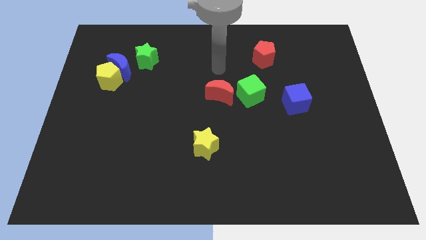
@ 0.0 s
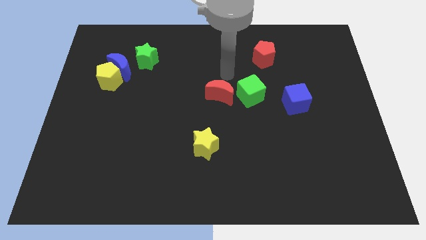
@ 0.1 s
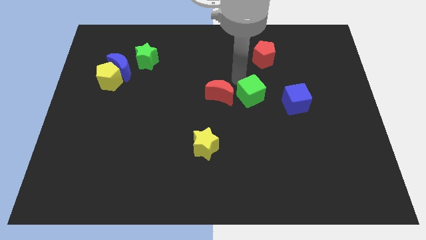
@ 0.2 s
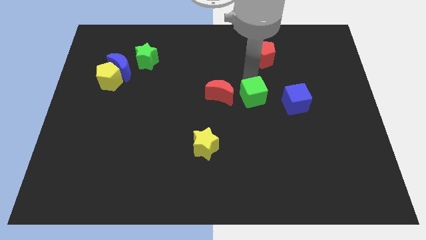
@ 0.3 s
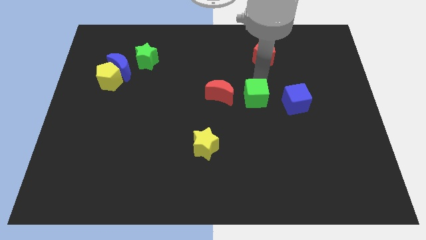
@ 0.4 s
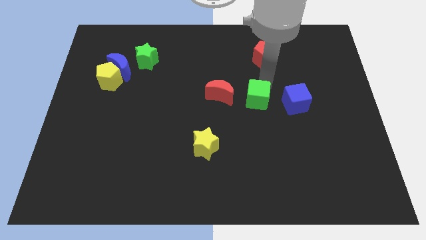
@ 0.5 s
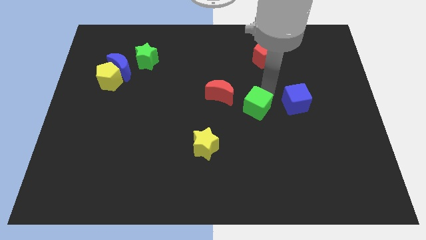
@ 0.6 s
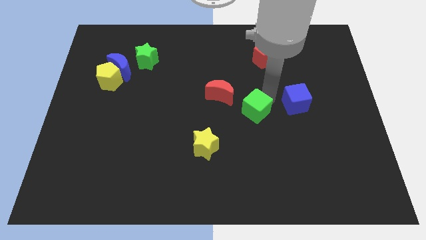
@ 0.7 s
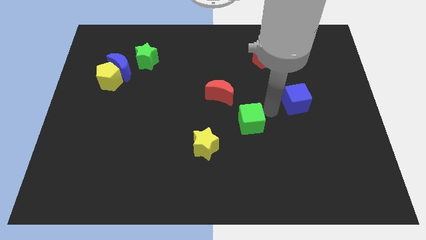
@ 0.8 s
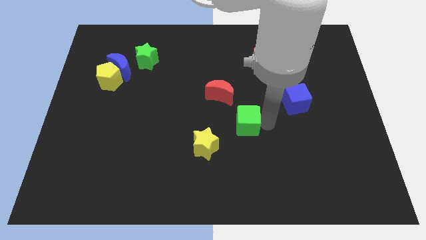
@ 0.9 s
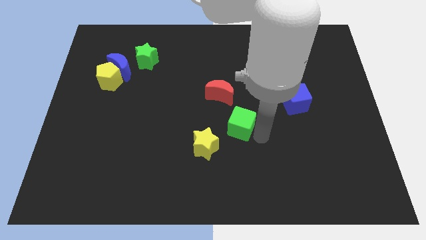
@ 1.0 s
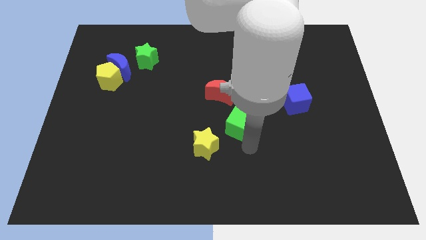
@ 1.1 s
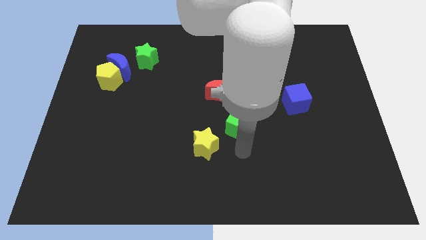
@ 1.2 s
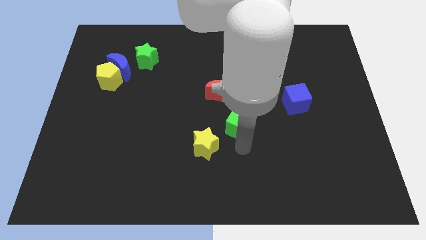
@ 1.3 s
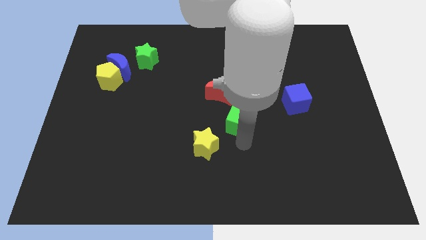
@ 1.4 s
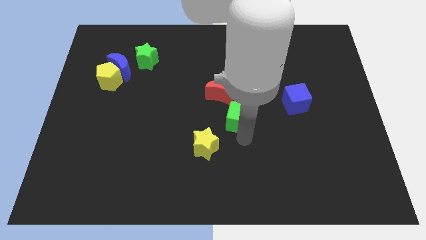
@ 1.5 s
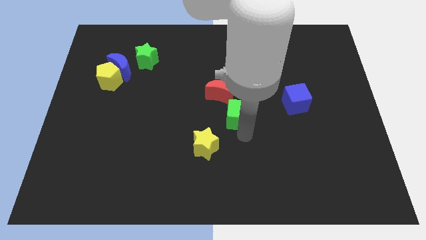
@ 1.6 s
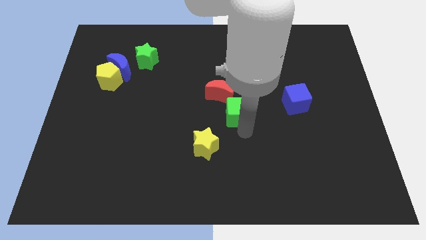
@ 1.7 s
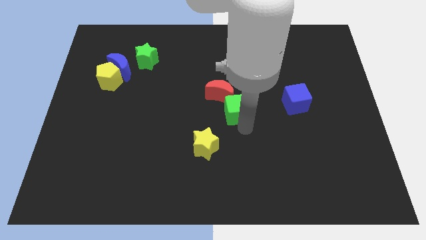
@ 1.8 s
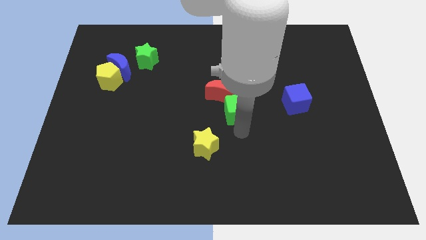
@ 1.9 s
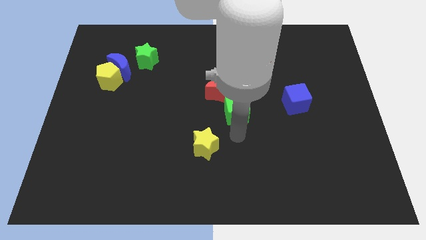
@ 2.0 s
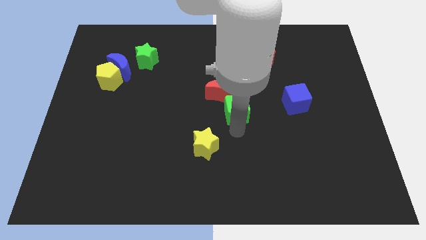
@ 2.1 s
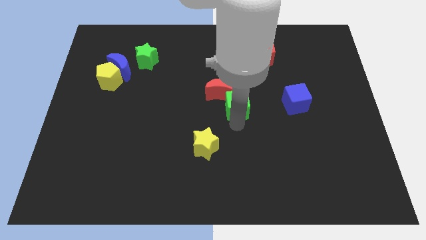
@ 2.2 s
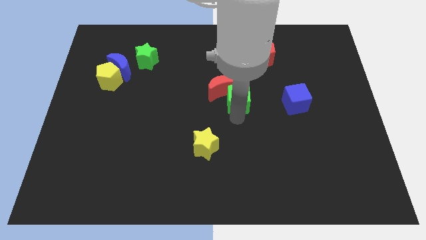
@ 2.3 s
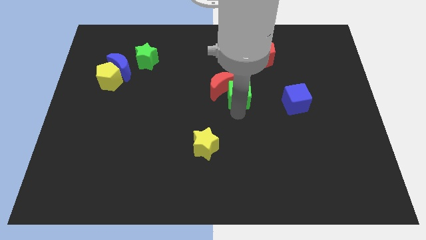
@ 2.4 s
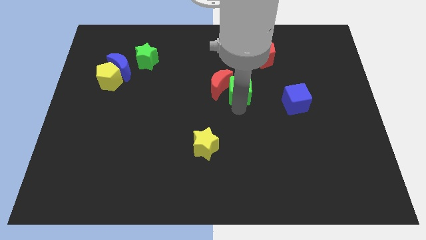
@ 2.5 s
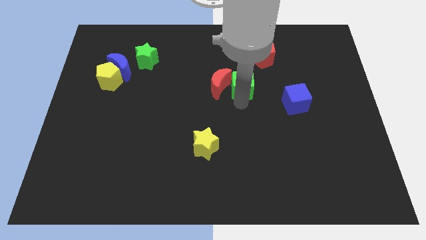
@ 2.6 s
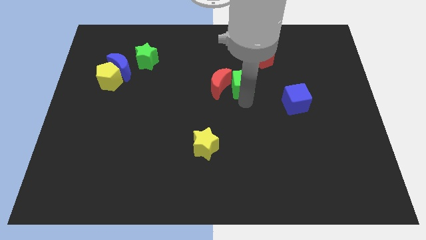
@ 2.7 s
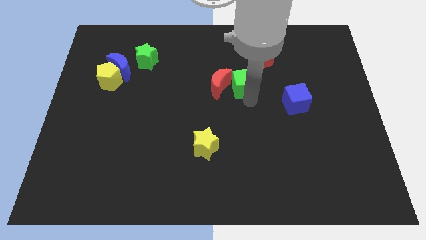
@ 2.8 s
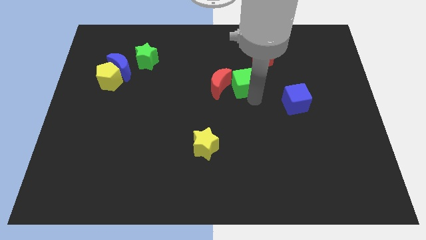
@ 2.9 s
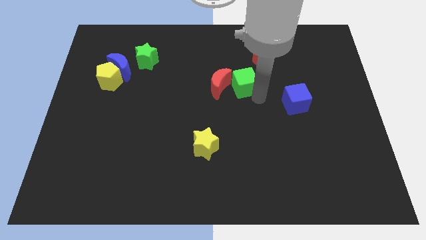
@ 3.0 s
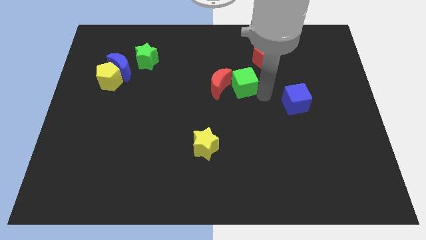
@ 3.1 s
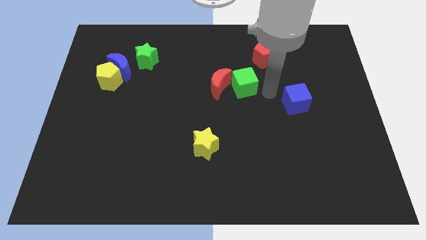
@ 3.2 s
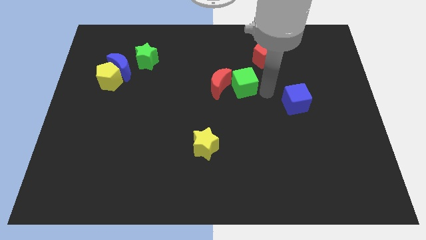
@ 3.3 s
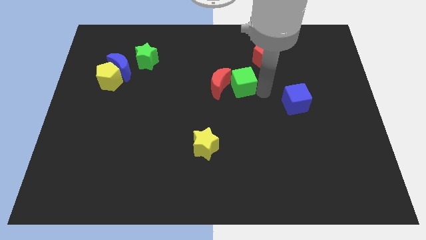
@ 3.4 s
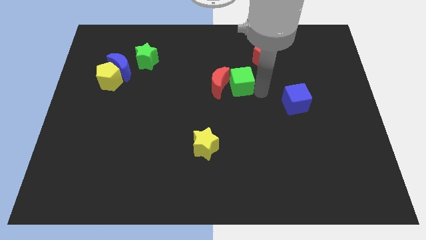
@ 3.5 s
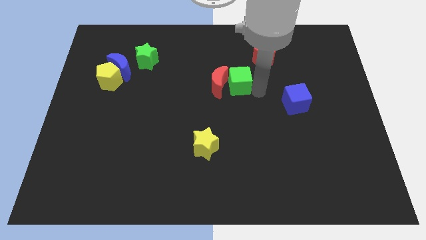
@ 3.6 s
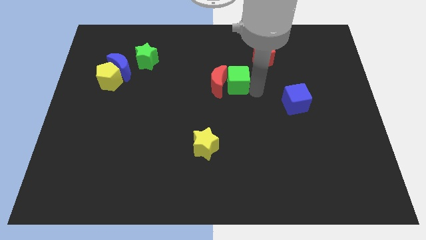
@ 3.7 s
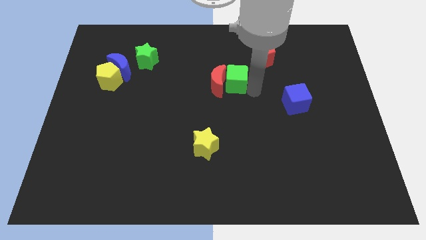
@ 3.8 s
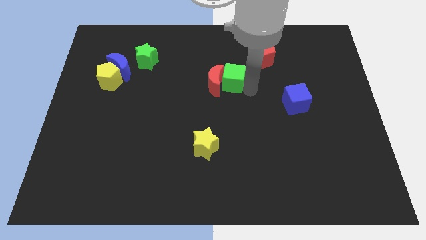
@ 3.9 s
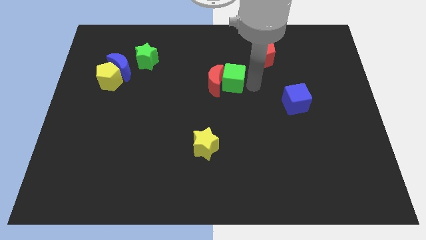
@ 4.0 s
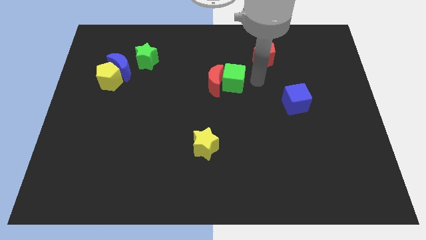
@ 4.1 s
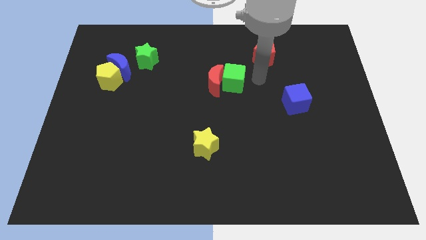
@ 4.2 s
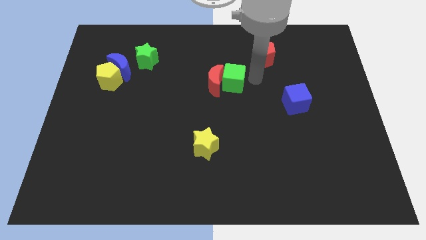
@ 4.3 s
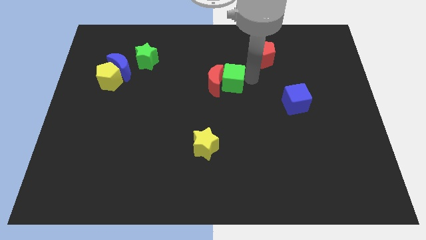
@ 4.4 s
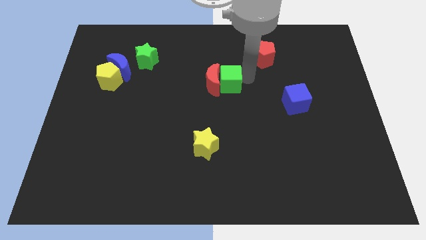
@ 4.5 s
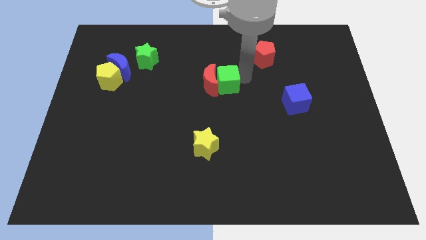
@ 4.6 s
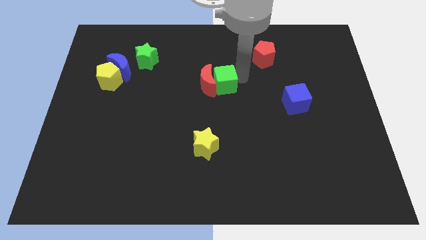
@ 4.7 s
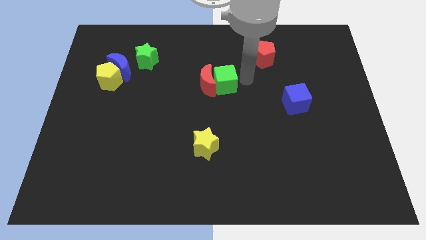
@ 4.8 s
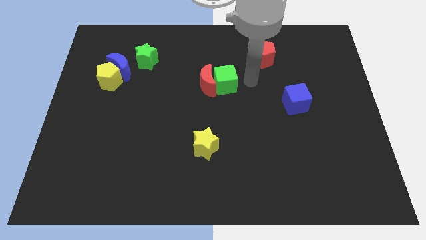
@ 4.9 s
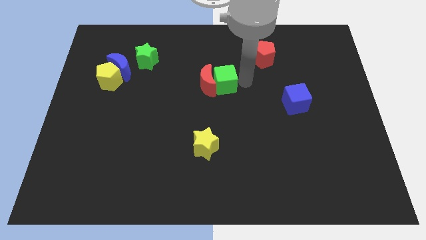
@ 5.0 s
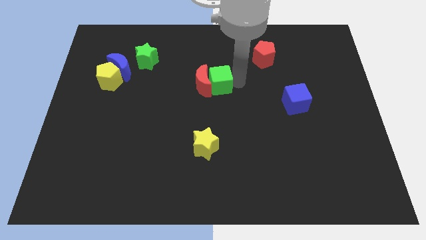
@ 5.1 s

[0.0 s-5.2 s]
move the green cube left a bit

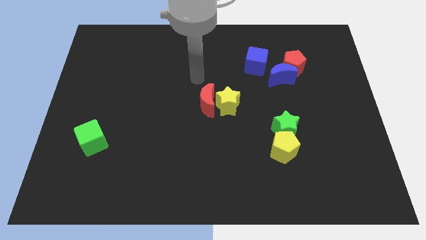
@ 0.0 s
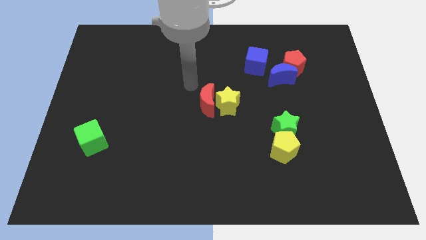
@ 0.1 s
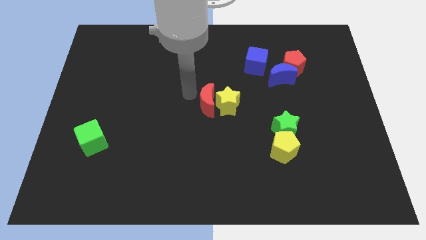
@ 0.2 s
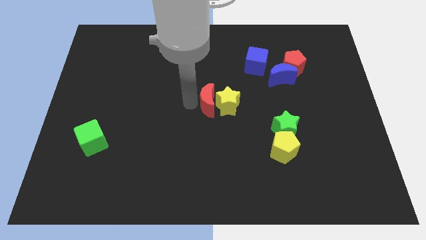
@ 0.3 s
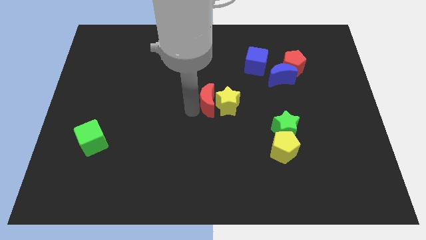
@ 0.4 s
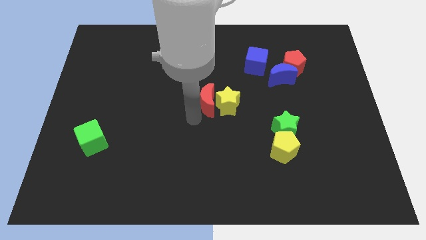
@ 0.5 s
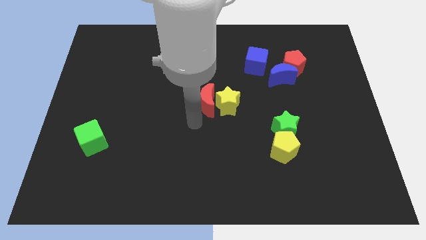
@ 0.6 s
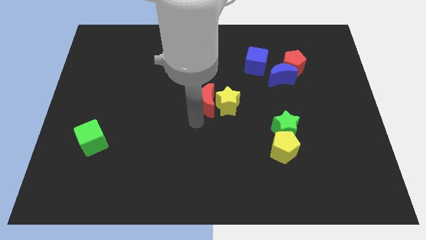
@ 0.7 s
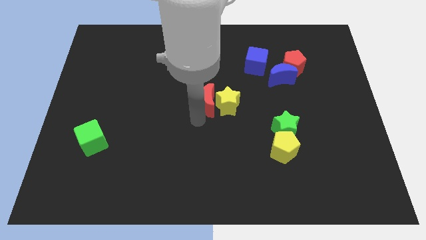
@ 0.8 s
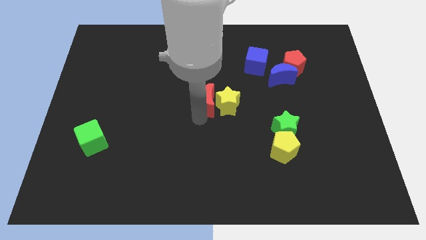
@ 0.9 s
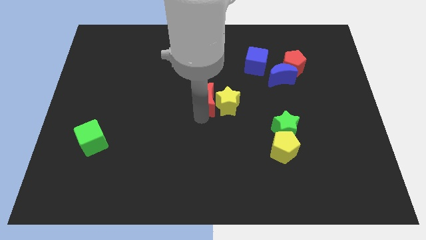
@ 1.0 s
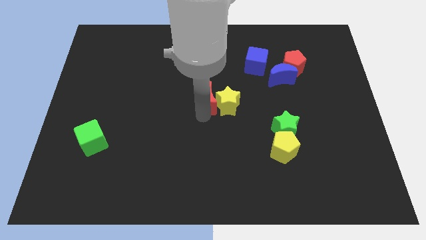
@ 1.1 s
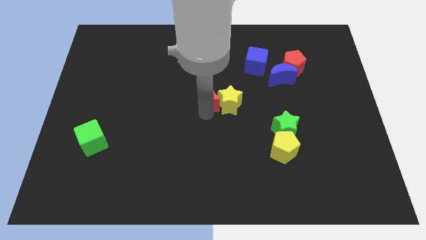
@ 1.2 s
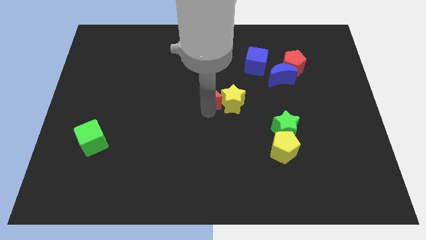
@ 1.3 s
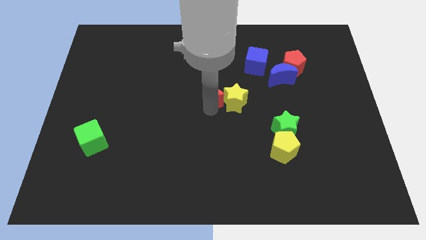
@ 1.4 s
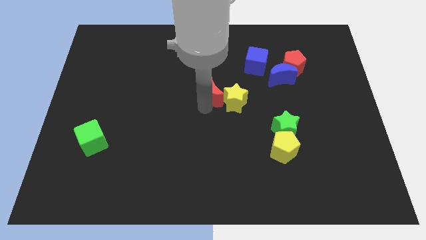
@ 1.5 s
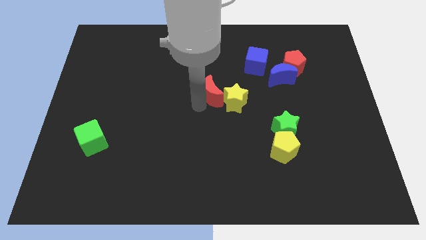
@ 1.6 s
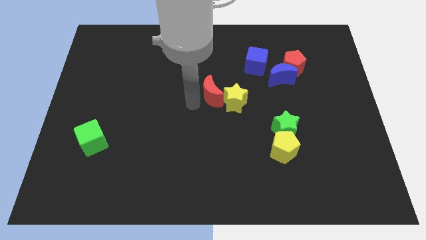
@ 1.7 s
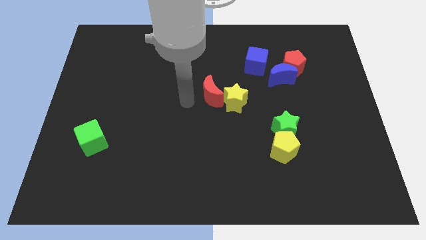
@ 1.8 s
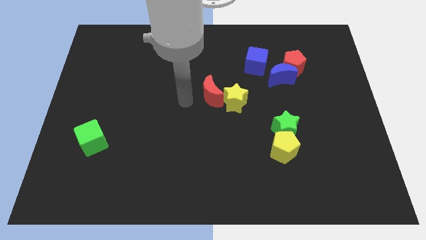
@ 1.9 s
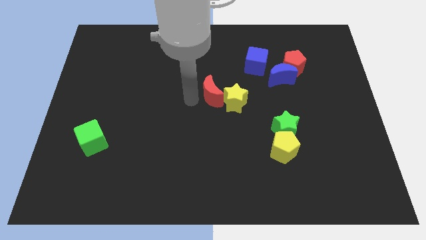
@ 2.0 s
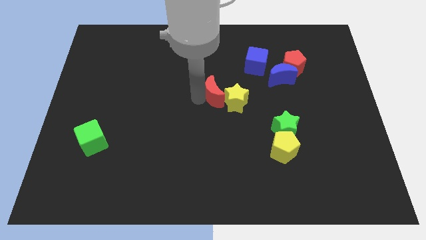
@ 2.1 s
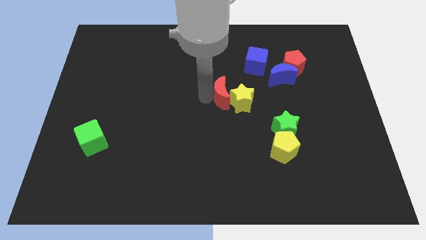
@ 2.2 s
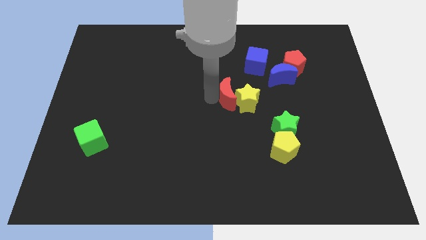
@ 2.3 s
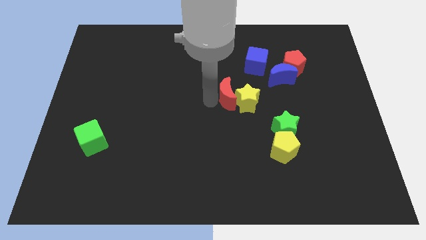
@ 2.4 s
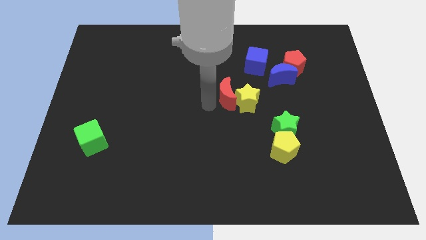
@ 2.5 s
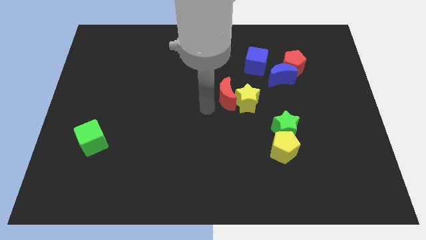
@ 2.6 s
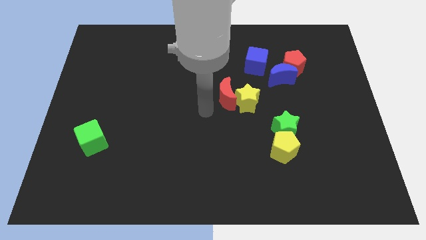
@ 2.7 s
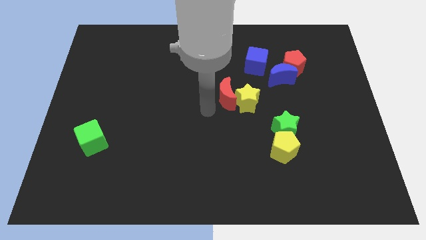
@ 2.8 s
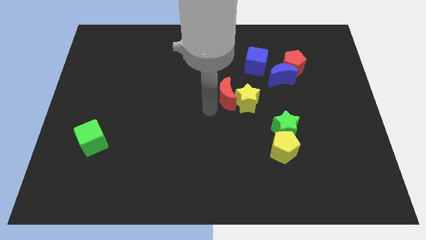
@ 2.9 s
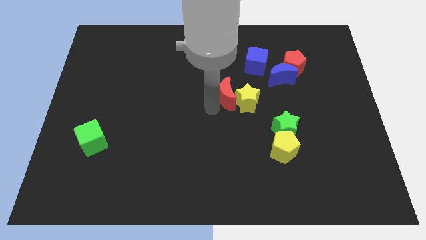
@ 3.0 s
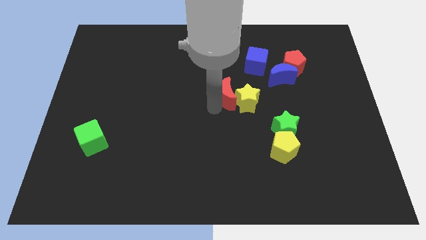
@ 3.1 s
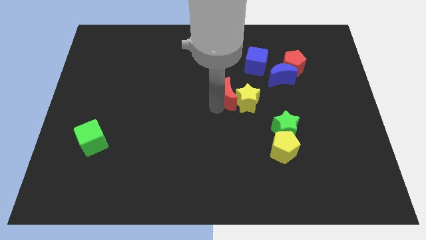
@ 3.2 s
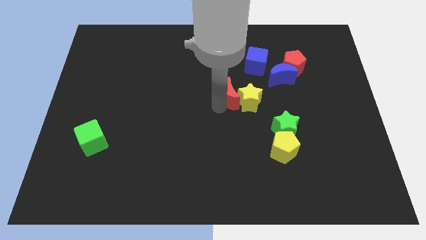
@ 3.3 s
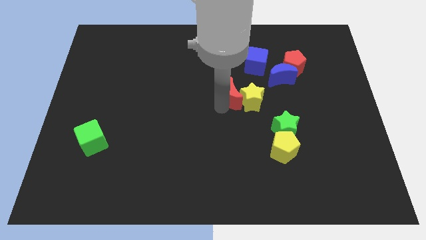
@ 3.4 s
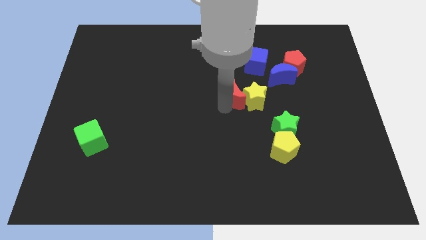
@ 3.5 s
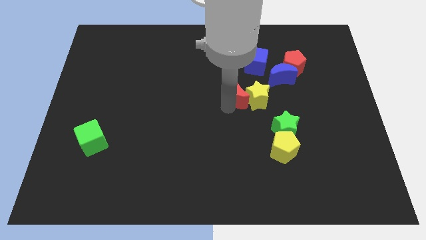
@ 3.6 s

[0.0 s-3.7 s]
move the red moon to the right somewhat
